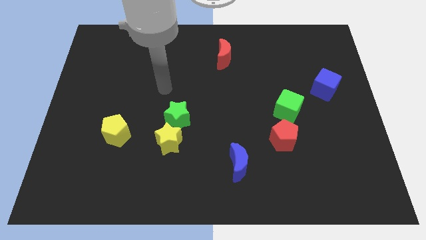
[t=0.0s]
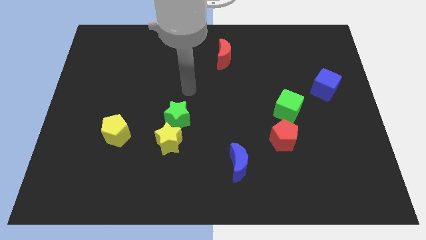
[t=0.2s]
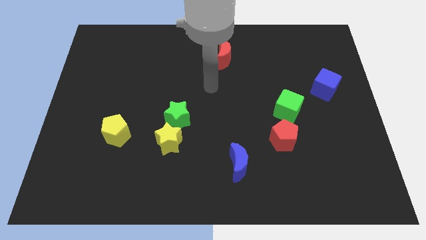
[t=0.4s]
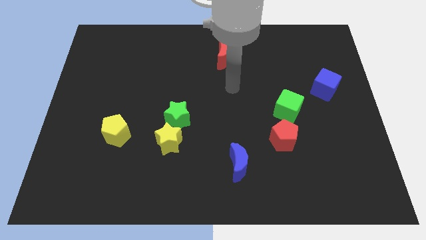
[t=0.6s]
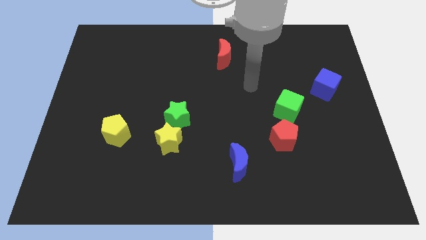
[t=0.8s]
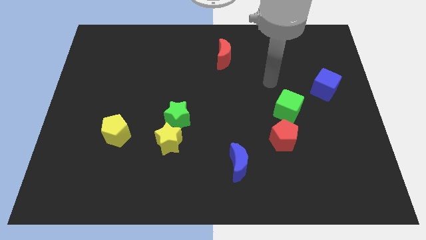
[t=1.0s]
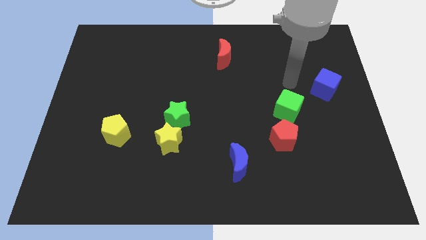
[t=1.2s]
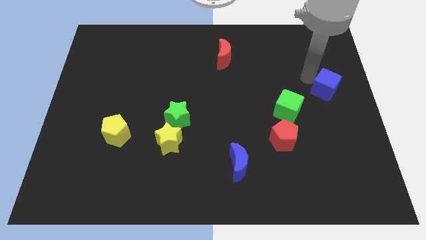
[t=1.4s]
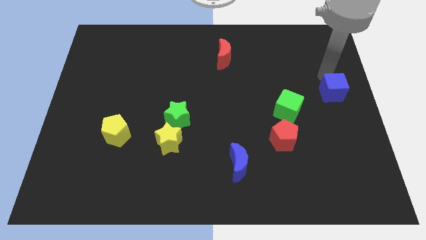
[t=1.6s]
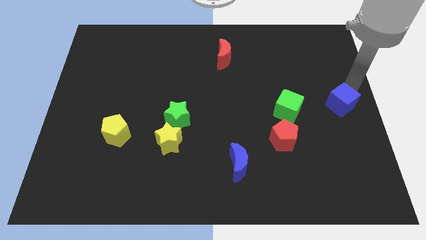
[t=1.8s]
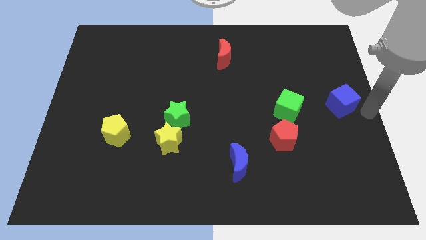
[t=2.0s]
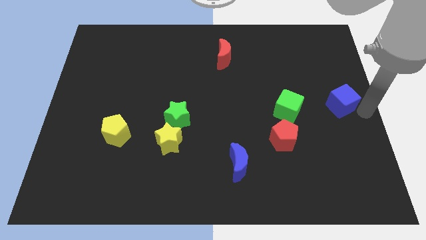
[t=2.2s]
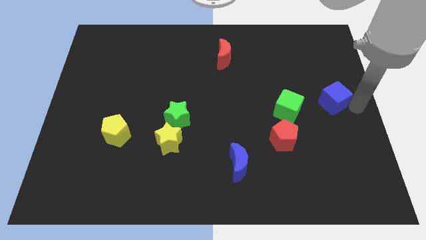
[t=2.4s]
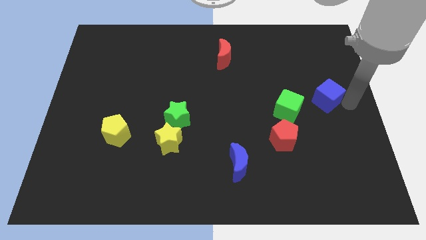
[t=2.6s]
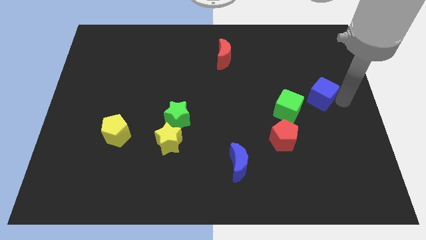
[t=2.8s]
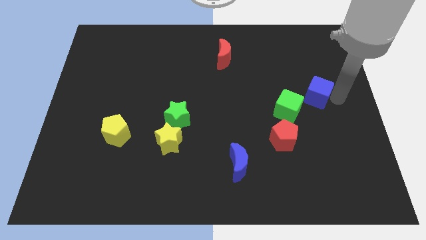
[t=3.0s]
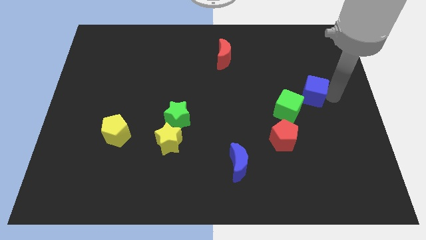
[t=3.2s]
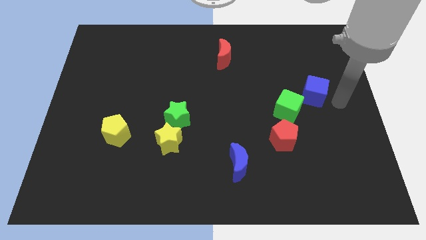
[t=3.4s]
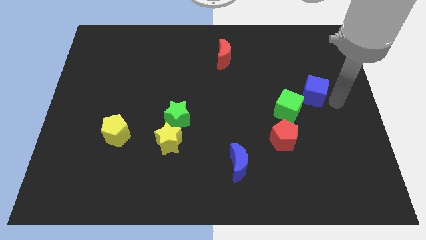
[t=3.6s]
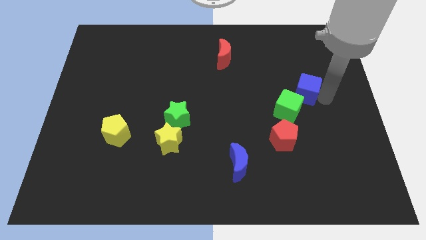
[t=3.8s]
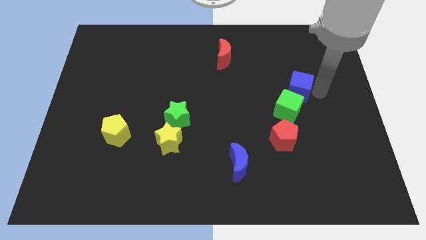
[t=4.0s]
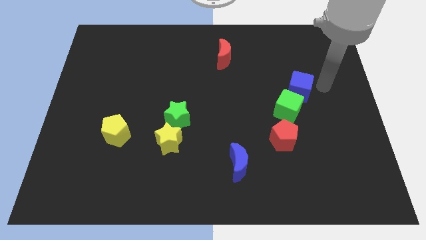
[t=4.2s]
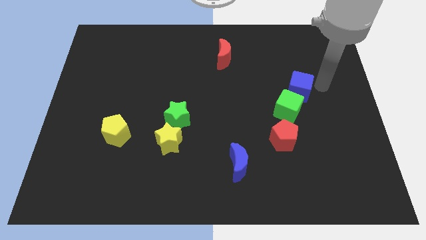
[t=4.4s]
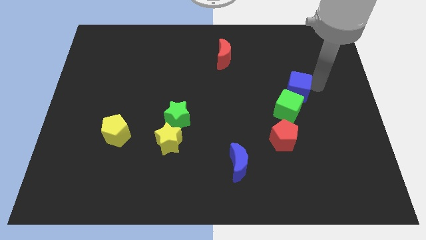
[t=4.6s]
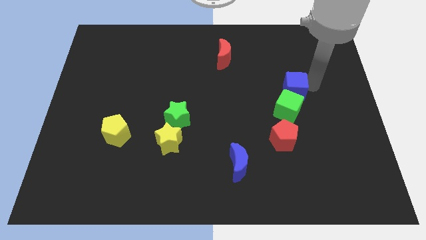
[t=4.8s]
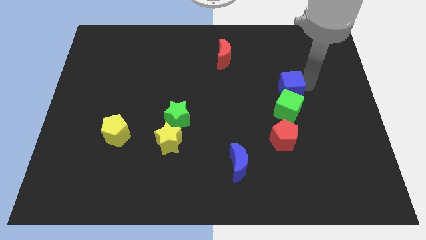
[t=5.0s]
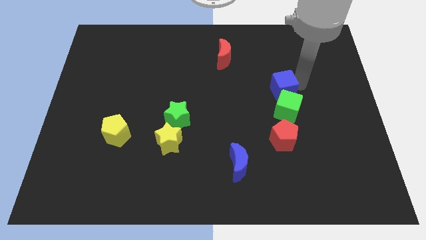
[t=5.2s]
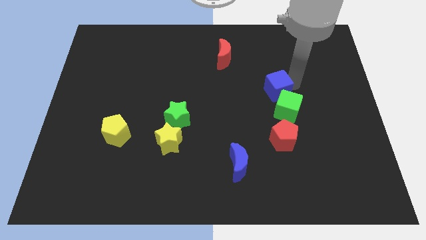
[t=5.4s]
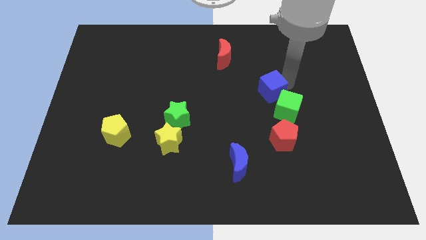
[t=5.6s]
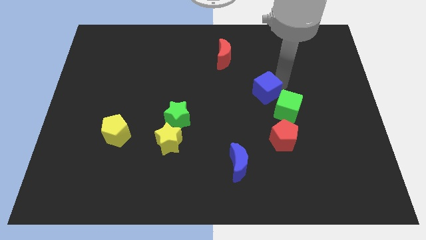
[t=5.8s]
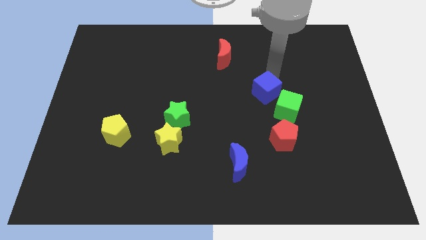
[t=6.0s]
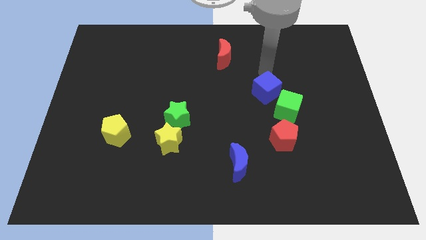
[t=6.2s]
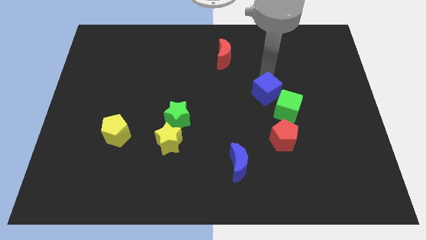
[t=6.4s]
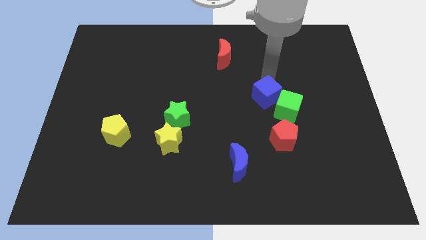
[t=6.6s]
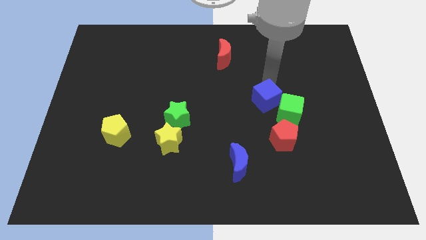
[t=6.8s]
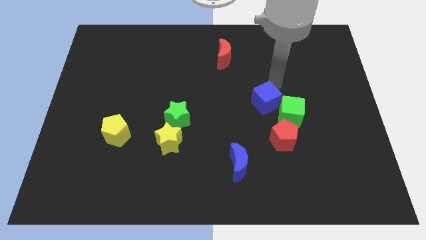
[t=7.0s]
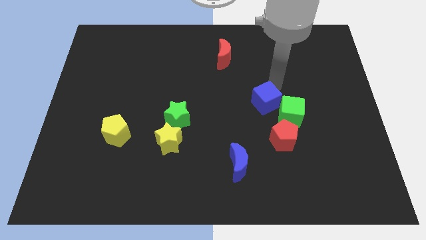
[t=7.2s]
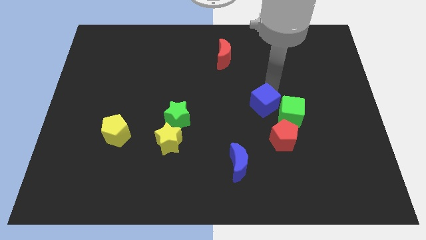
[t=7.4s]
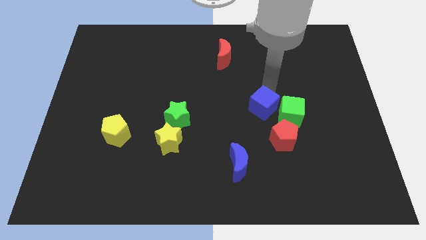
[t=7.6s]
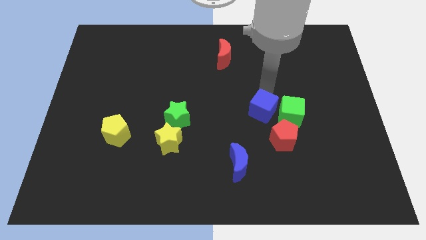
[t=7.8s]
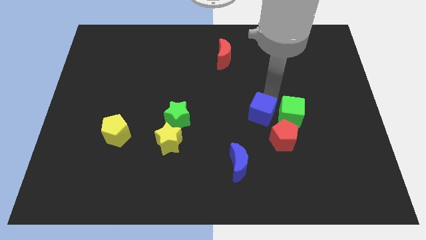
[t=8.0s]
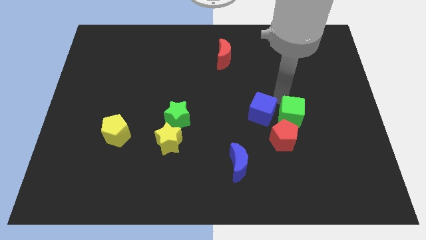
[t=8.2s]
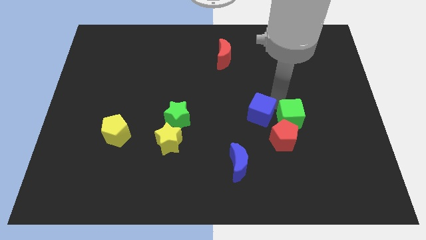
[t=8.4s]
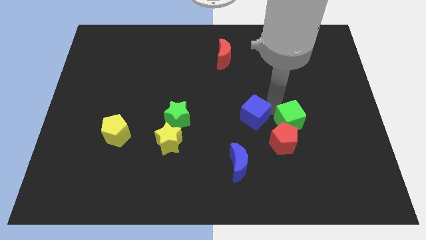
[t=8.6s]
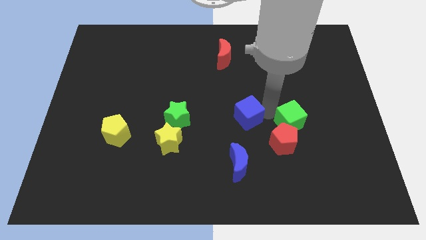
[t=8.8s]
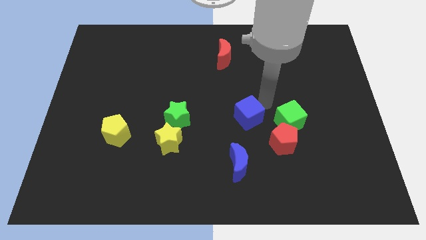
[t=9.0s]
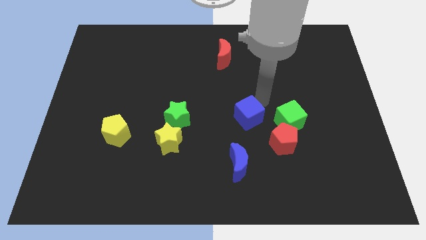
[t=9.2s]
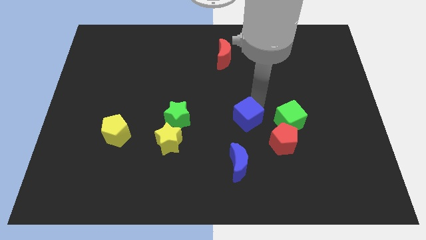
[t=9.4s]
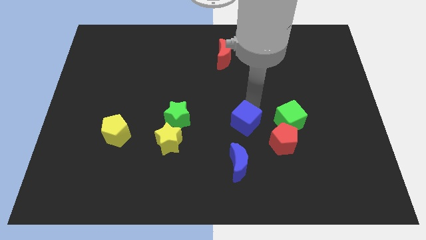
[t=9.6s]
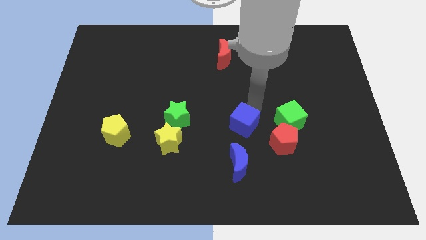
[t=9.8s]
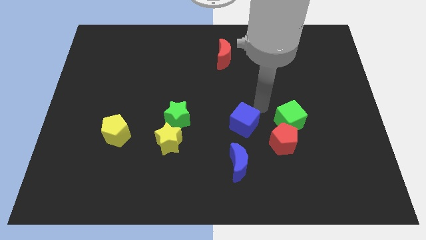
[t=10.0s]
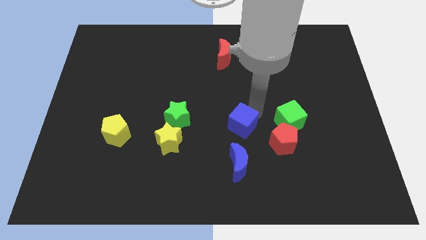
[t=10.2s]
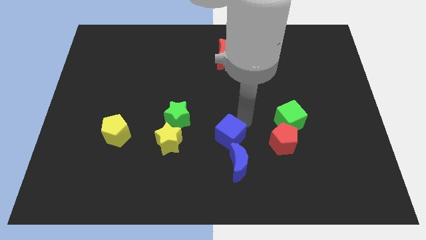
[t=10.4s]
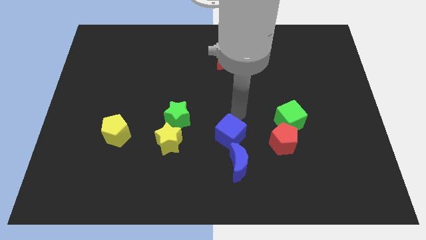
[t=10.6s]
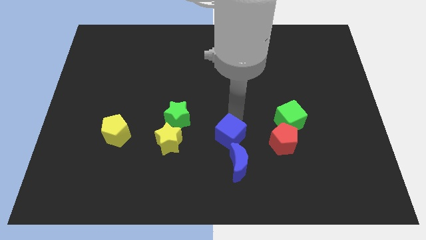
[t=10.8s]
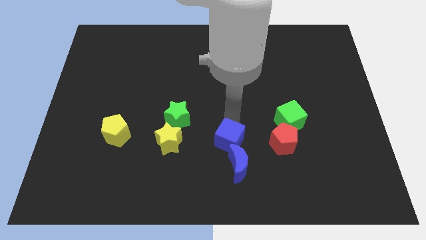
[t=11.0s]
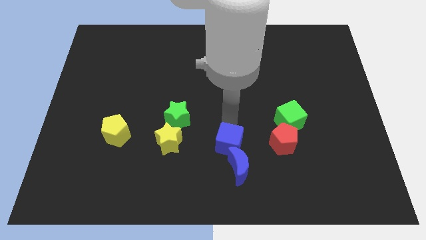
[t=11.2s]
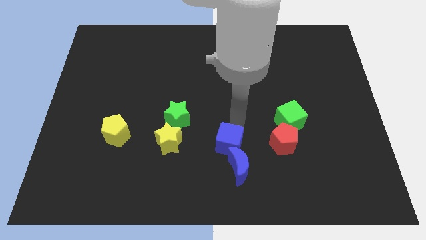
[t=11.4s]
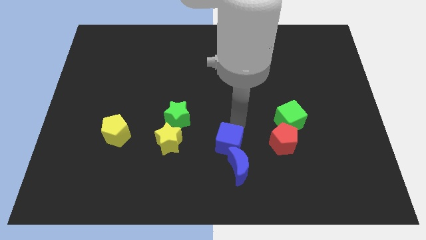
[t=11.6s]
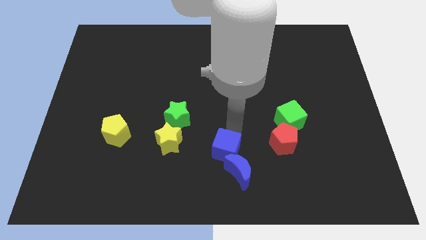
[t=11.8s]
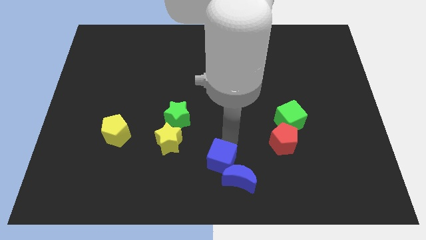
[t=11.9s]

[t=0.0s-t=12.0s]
push the blue cube to the bottom side

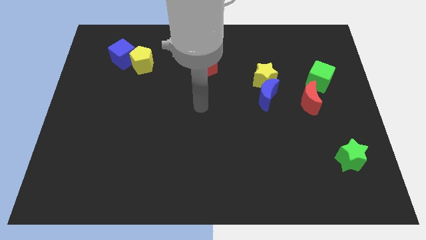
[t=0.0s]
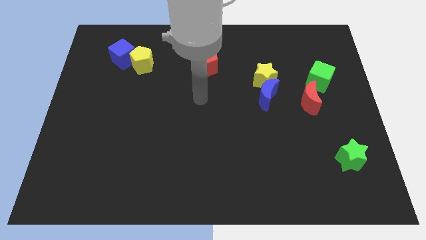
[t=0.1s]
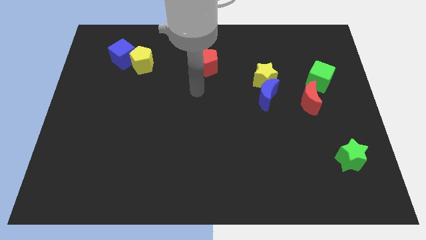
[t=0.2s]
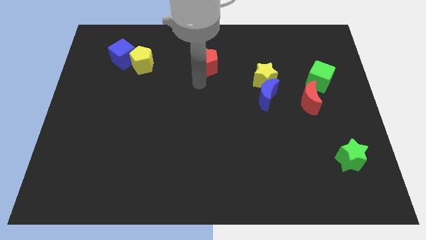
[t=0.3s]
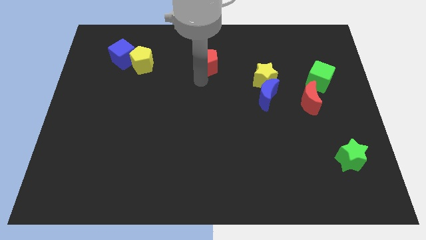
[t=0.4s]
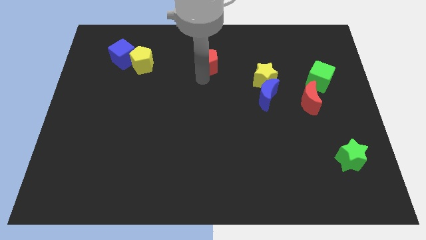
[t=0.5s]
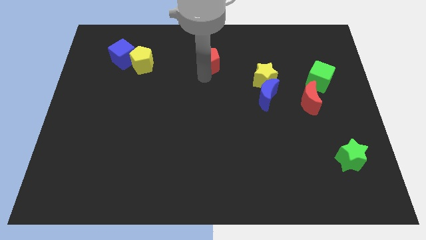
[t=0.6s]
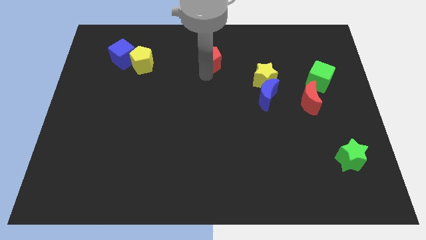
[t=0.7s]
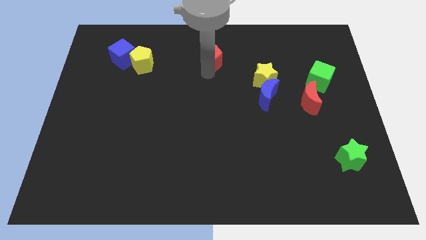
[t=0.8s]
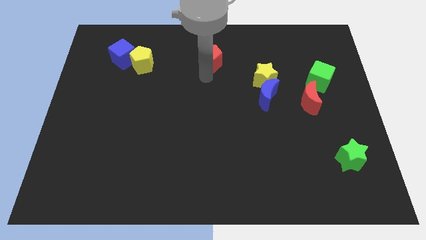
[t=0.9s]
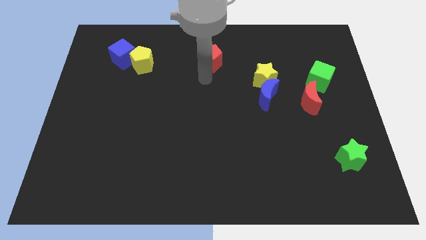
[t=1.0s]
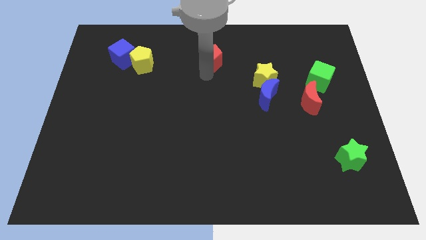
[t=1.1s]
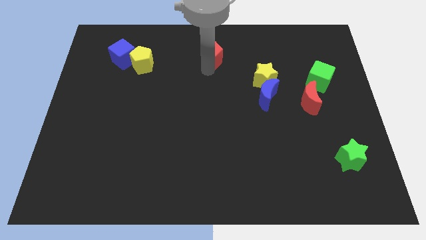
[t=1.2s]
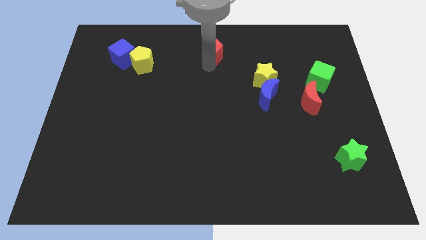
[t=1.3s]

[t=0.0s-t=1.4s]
slide the red pentagon to the top
